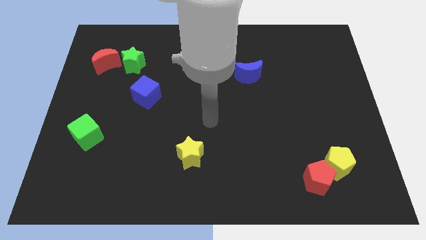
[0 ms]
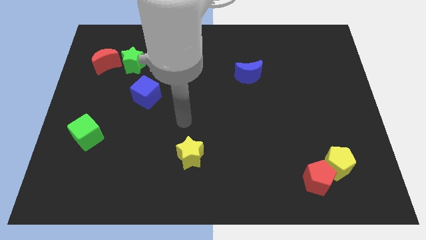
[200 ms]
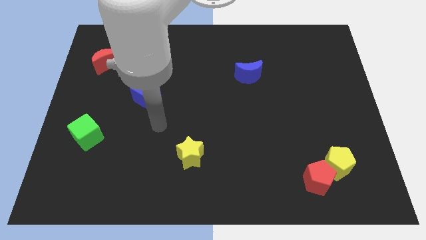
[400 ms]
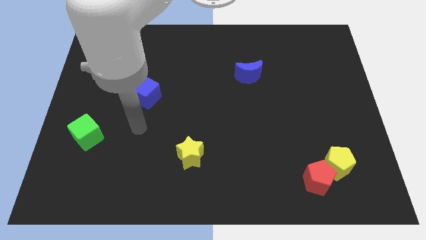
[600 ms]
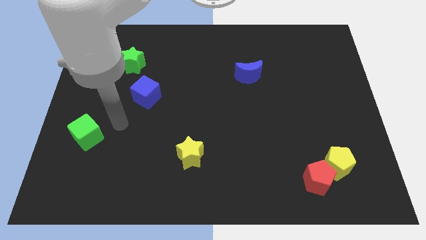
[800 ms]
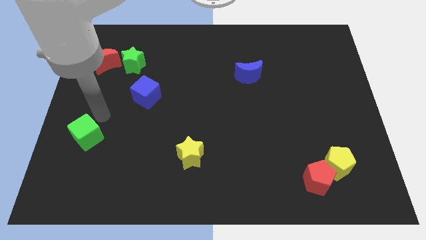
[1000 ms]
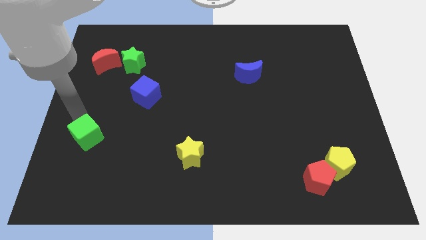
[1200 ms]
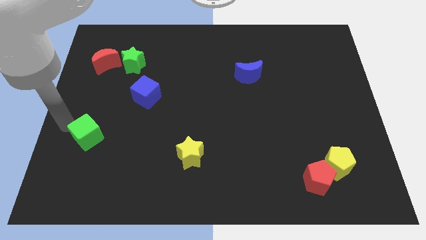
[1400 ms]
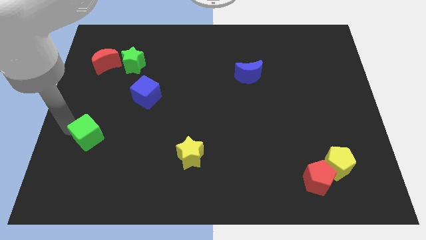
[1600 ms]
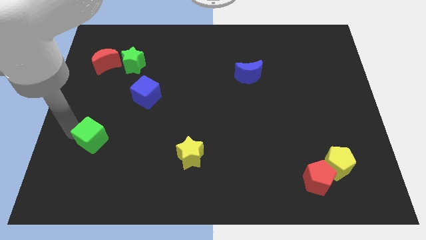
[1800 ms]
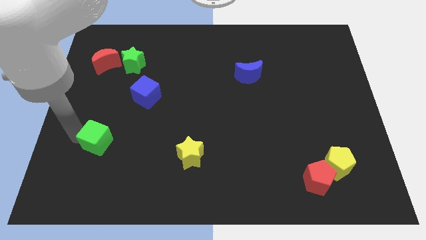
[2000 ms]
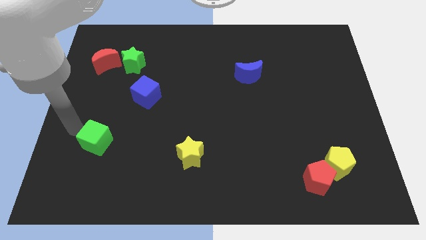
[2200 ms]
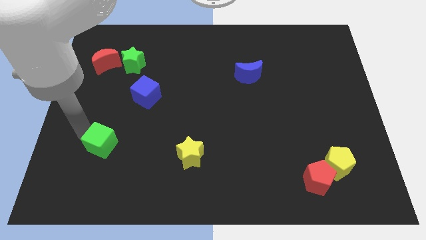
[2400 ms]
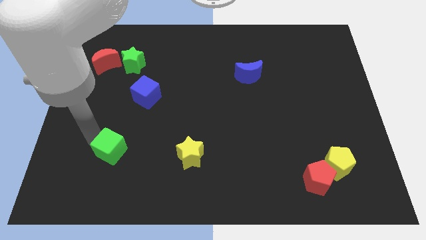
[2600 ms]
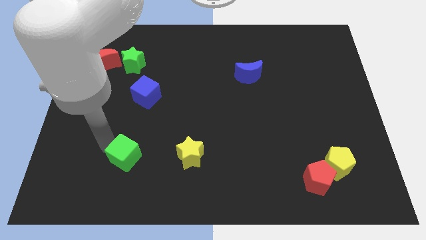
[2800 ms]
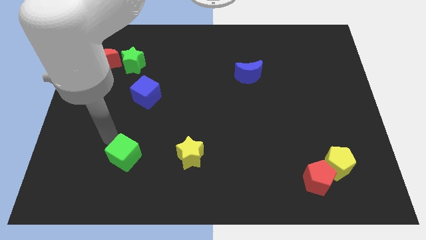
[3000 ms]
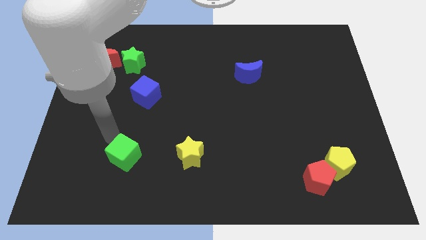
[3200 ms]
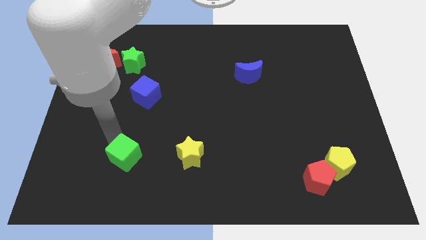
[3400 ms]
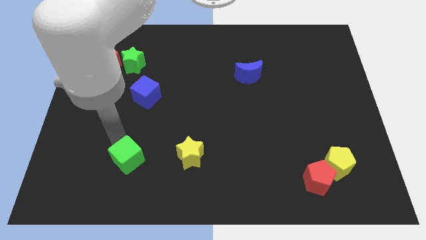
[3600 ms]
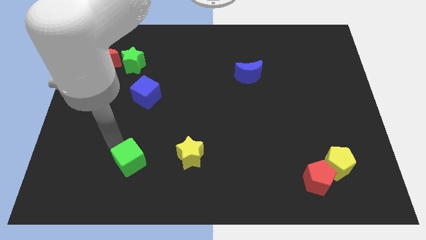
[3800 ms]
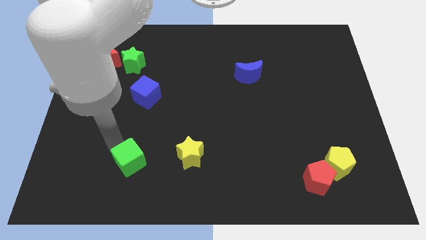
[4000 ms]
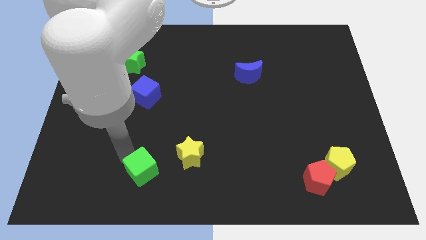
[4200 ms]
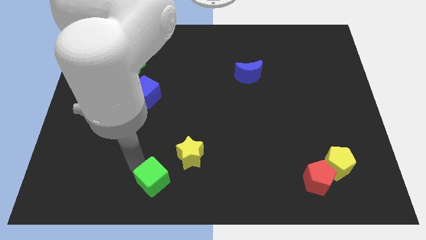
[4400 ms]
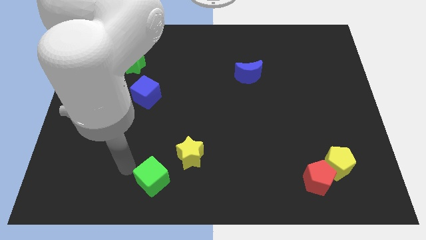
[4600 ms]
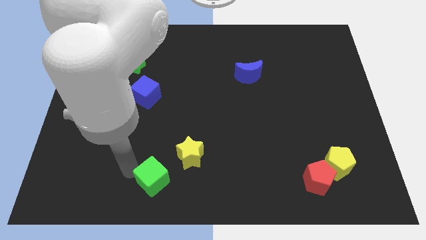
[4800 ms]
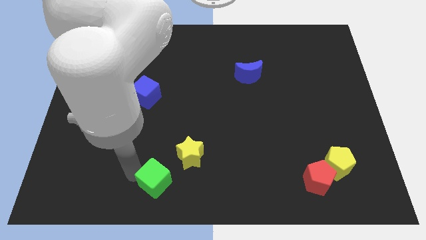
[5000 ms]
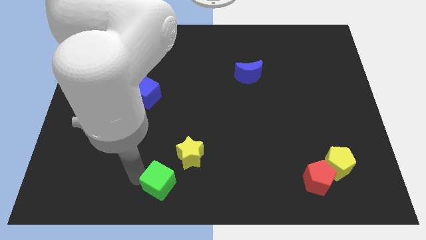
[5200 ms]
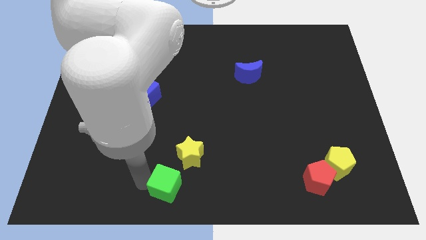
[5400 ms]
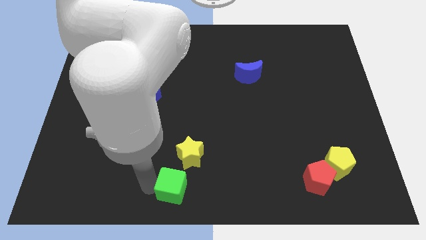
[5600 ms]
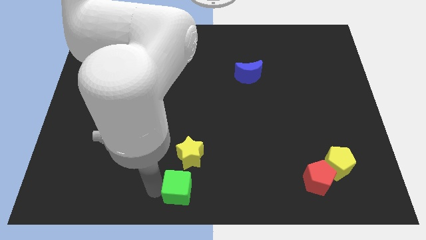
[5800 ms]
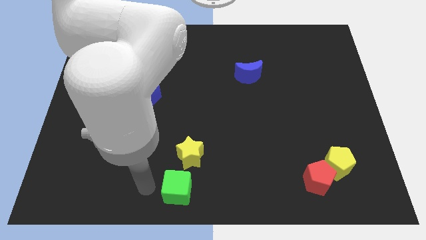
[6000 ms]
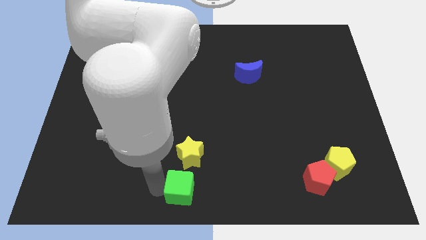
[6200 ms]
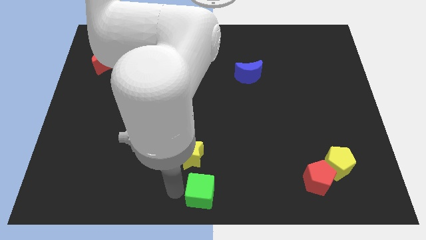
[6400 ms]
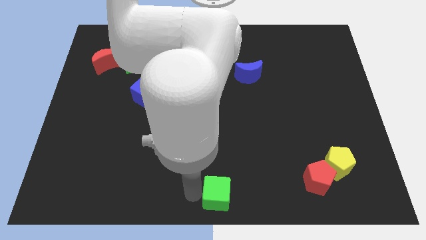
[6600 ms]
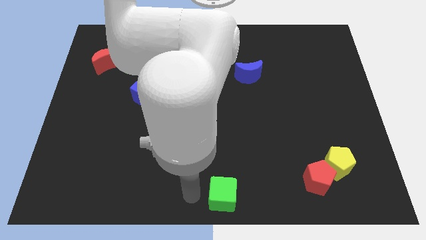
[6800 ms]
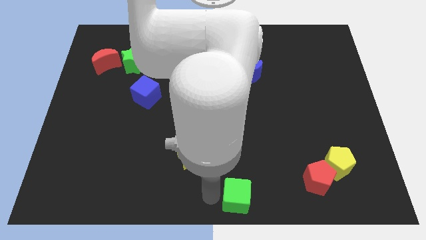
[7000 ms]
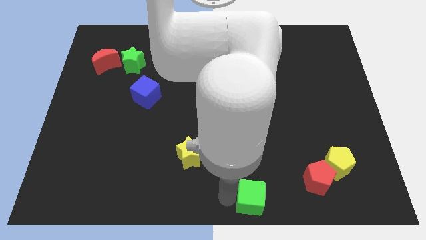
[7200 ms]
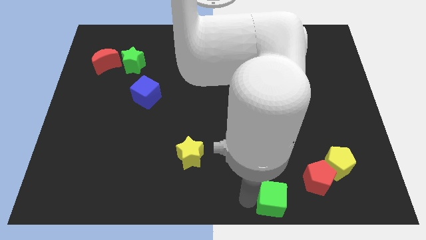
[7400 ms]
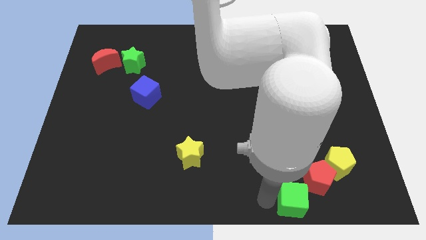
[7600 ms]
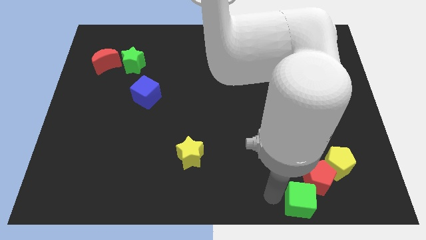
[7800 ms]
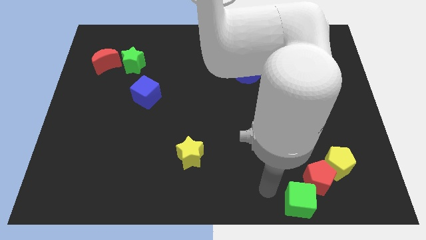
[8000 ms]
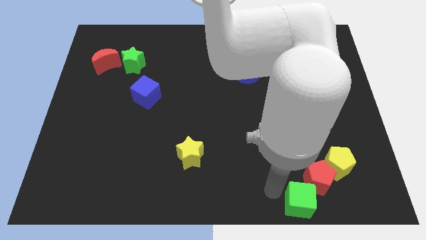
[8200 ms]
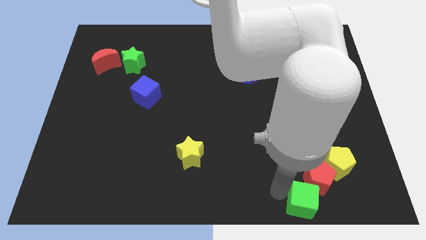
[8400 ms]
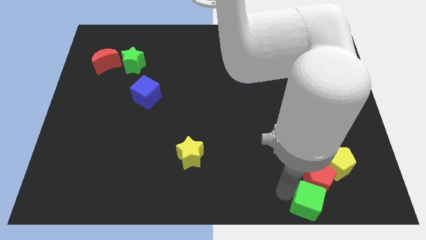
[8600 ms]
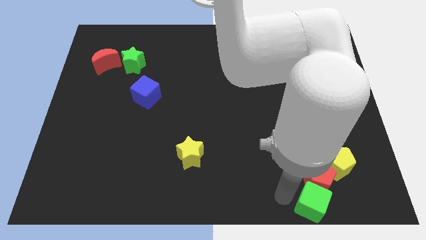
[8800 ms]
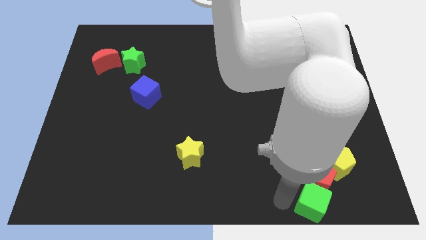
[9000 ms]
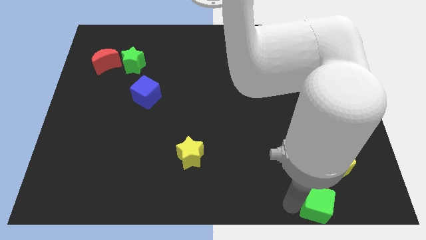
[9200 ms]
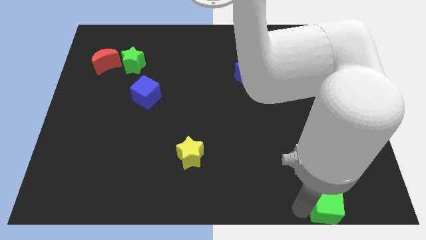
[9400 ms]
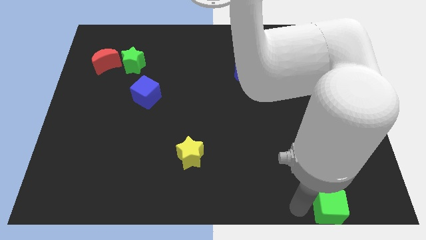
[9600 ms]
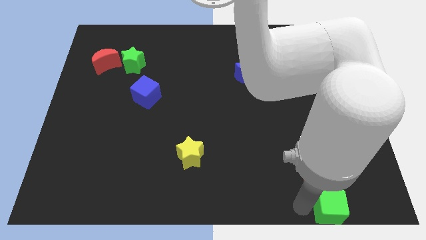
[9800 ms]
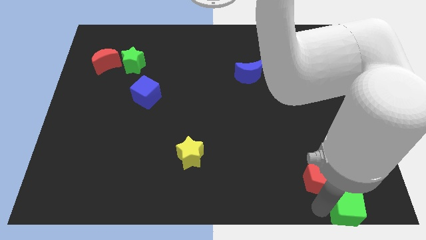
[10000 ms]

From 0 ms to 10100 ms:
slide the green cube to the lower right corner

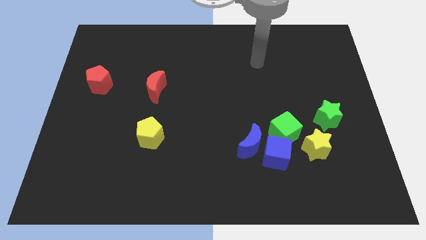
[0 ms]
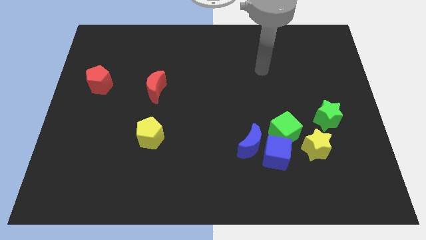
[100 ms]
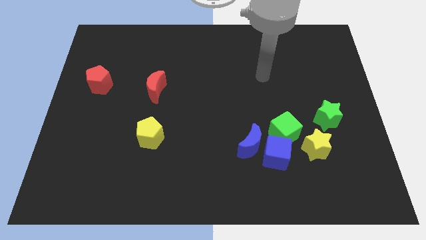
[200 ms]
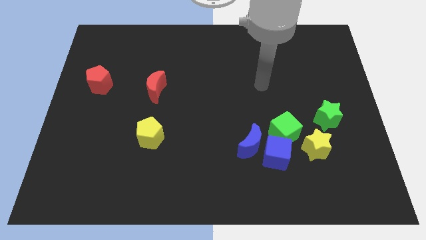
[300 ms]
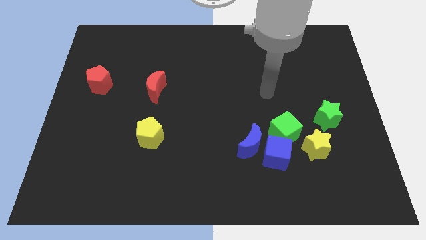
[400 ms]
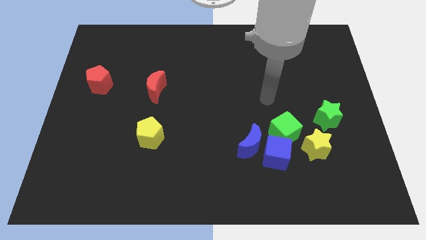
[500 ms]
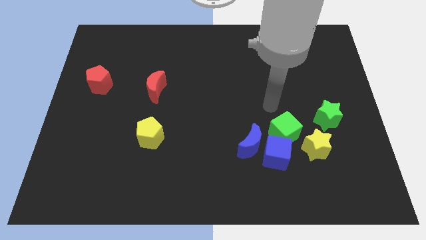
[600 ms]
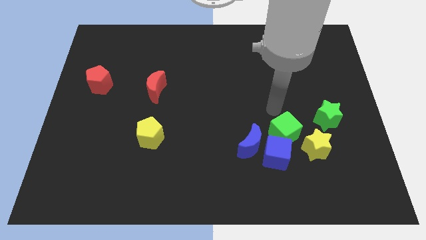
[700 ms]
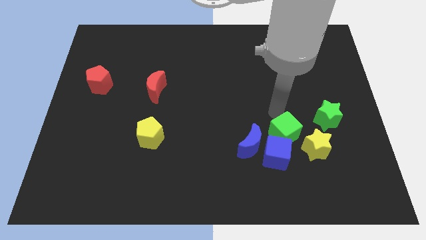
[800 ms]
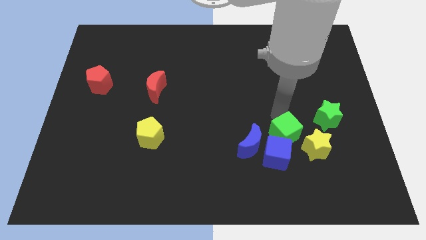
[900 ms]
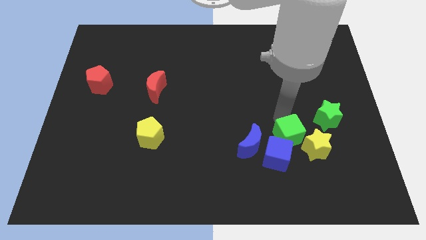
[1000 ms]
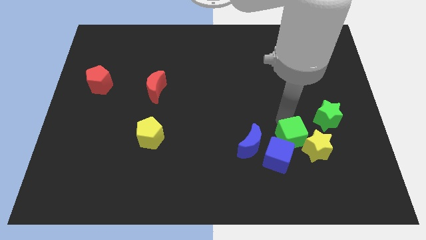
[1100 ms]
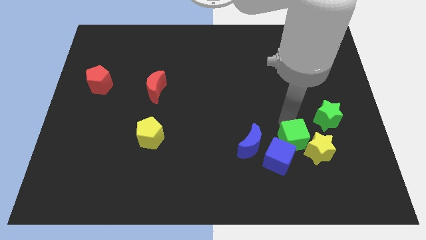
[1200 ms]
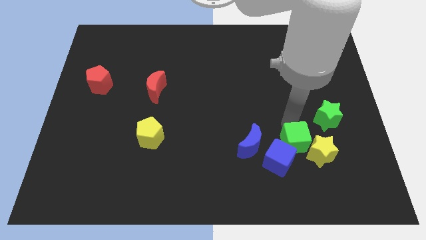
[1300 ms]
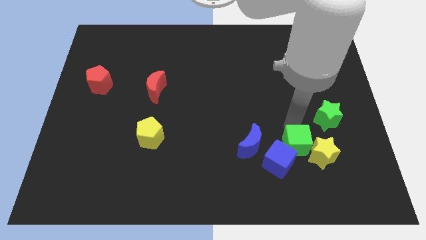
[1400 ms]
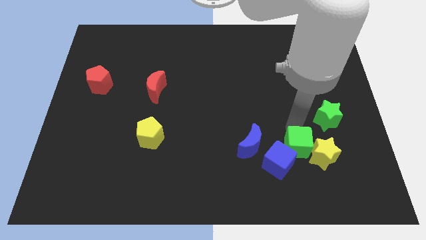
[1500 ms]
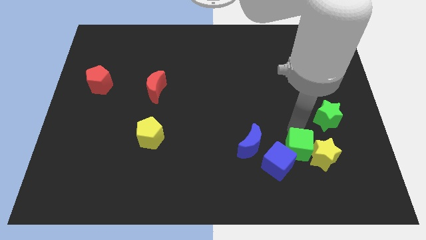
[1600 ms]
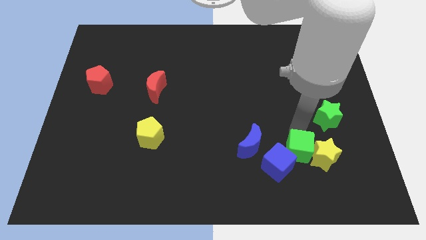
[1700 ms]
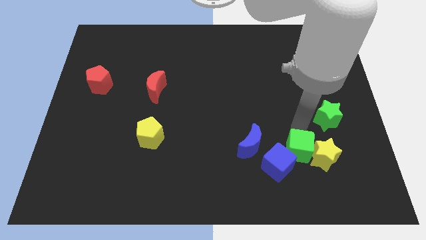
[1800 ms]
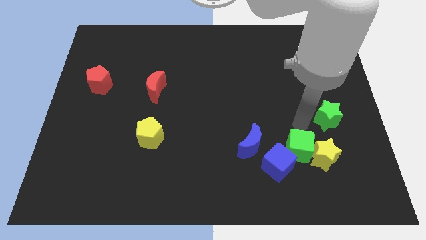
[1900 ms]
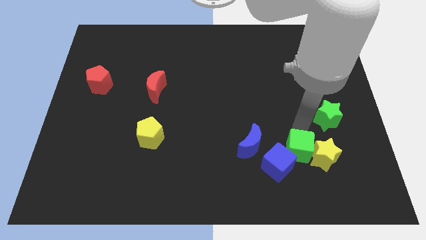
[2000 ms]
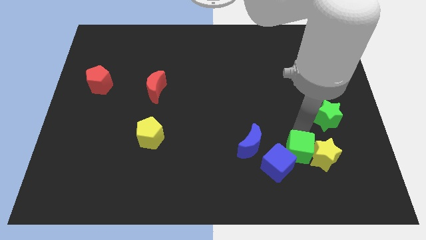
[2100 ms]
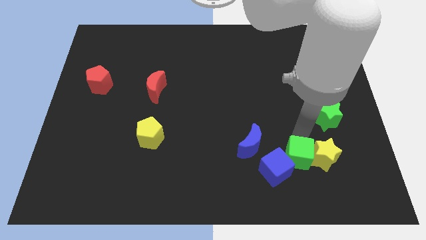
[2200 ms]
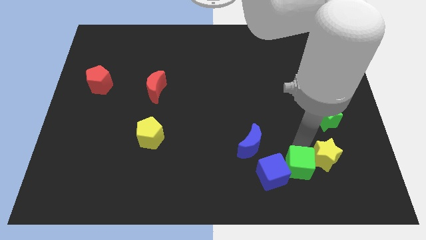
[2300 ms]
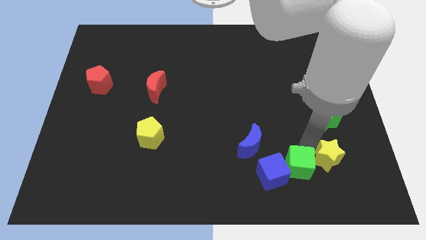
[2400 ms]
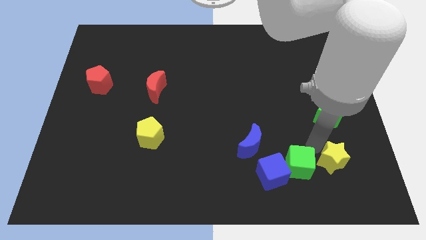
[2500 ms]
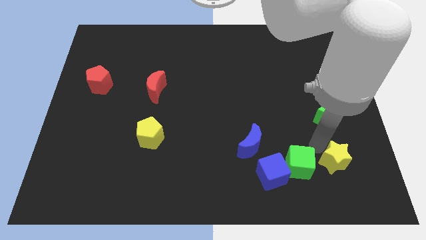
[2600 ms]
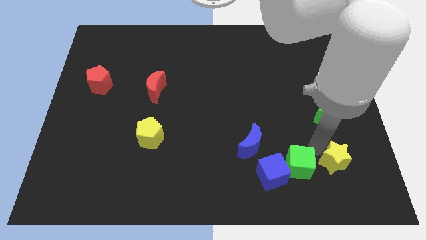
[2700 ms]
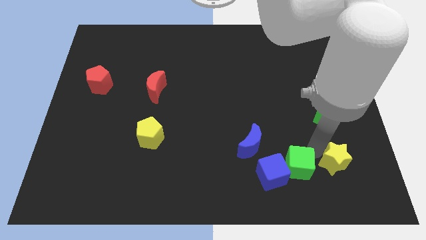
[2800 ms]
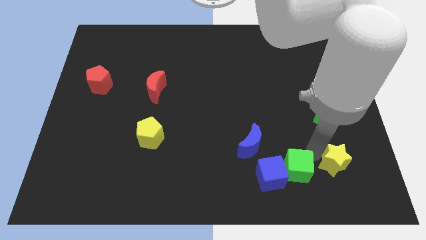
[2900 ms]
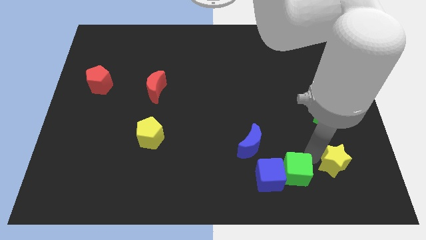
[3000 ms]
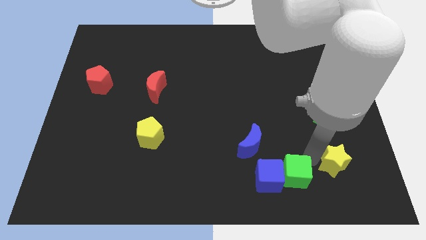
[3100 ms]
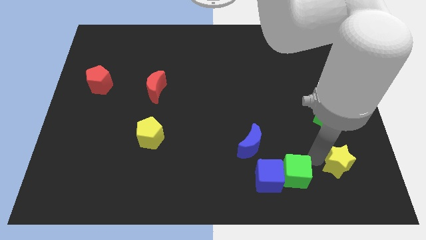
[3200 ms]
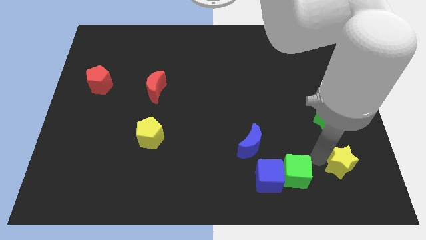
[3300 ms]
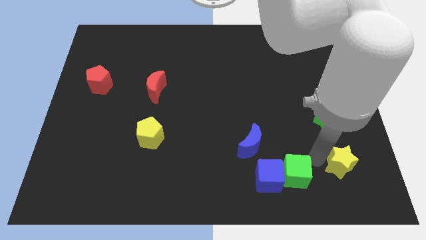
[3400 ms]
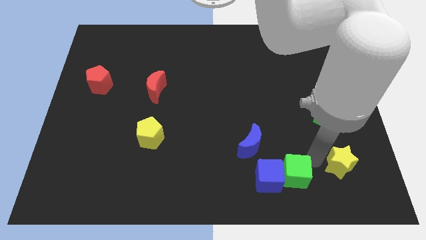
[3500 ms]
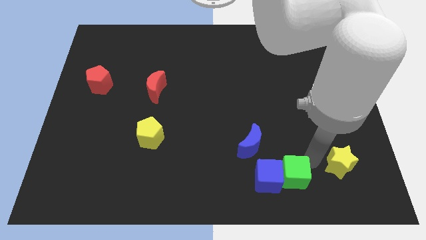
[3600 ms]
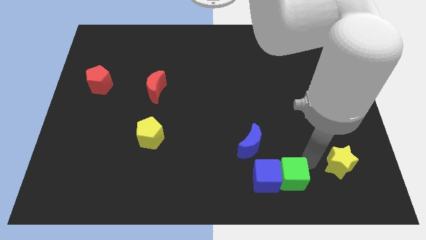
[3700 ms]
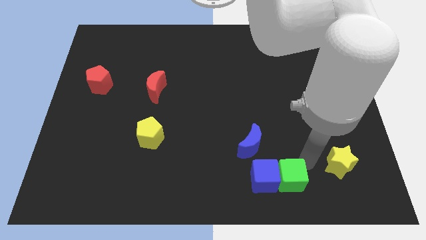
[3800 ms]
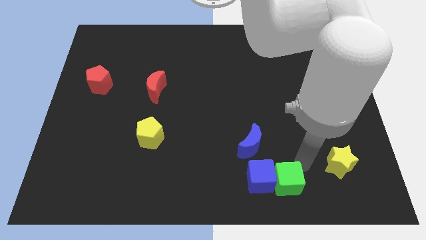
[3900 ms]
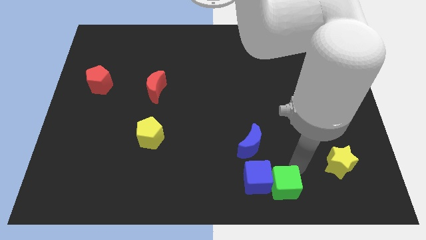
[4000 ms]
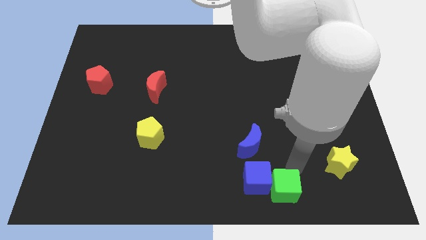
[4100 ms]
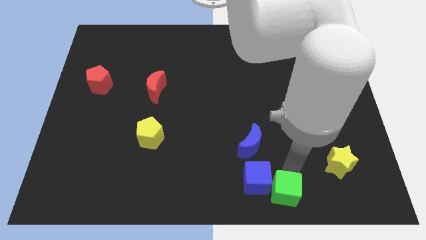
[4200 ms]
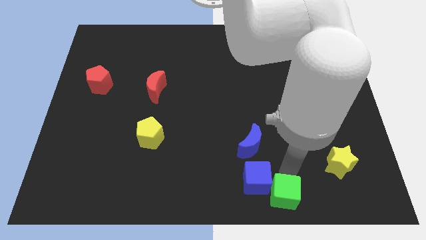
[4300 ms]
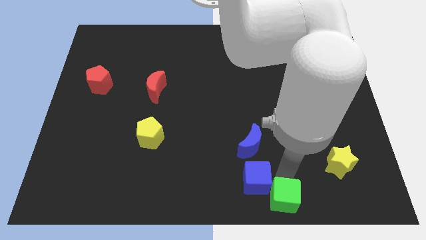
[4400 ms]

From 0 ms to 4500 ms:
slide the green cube to the bottom side
